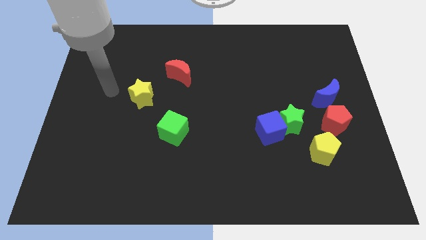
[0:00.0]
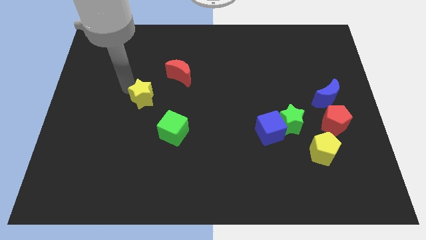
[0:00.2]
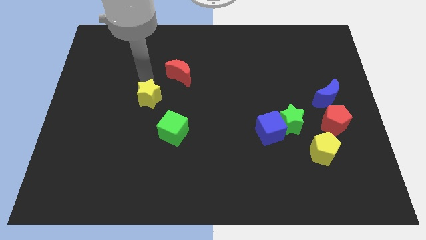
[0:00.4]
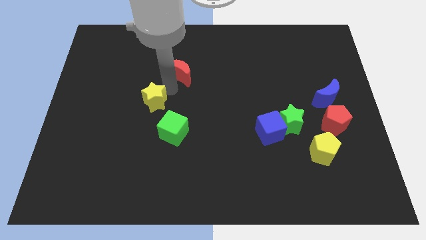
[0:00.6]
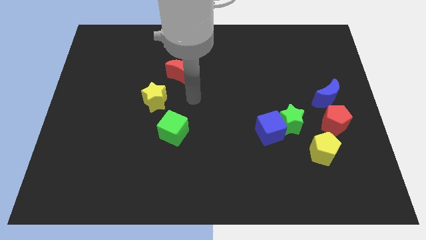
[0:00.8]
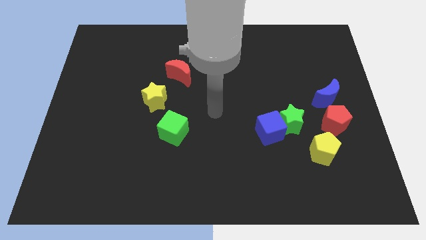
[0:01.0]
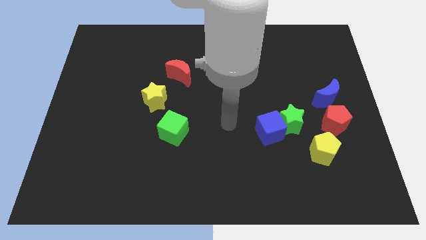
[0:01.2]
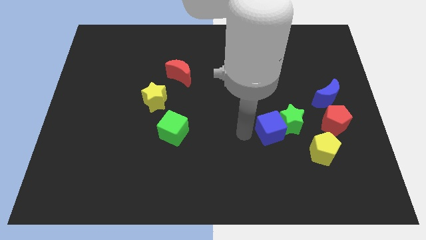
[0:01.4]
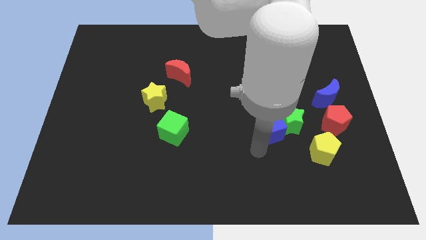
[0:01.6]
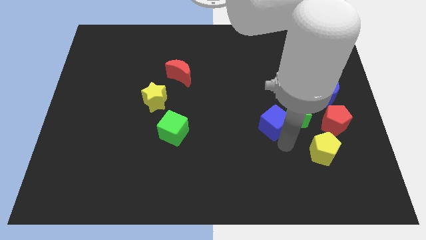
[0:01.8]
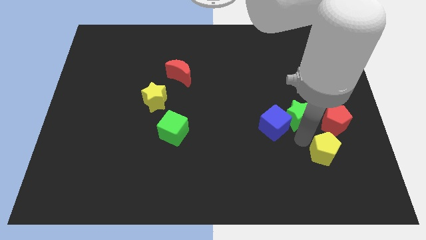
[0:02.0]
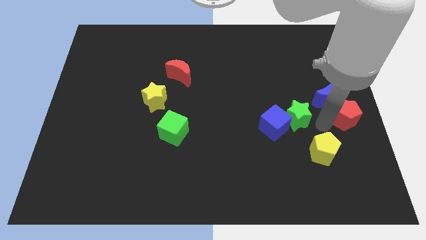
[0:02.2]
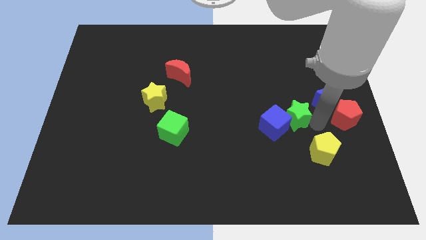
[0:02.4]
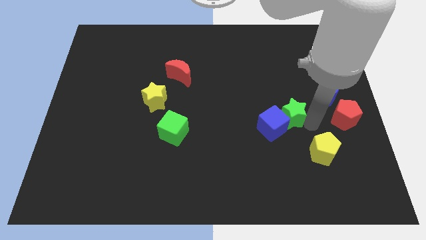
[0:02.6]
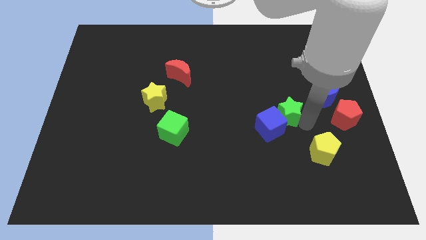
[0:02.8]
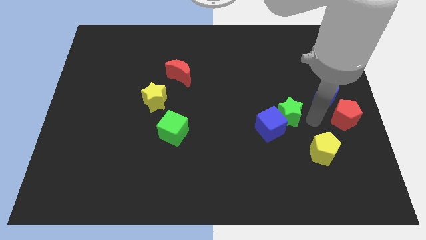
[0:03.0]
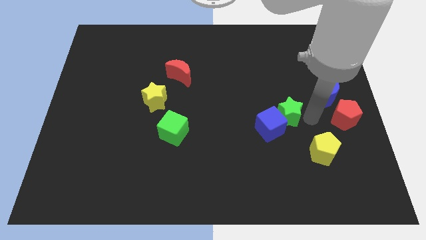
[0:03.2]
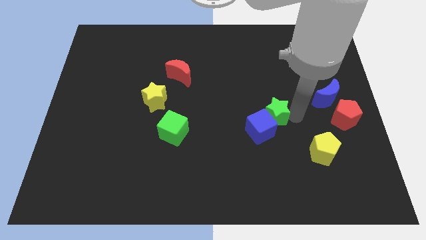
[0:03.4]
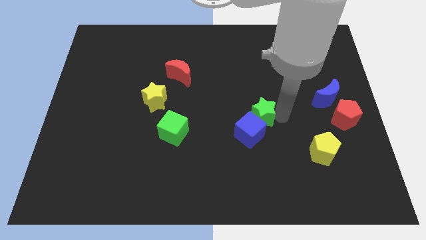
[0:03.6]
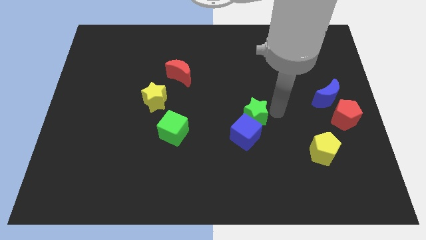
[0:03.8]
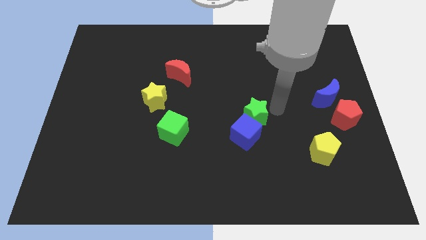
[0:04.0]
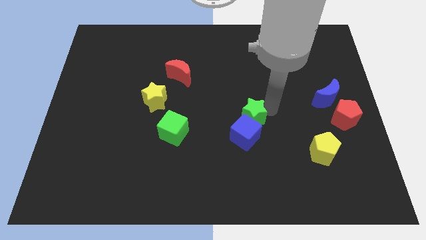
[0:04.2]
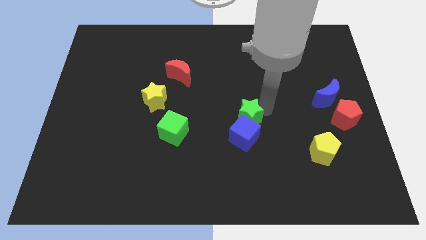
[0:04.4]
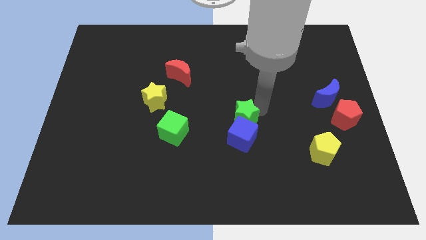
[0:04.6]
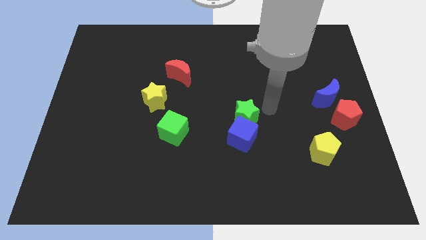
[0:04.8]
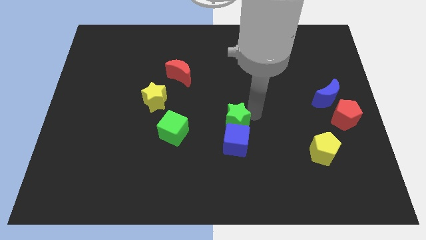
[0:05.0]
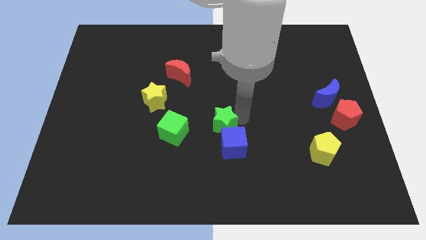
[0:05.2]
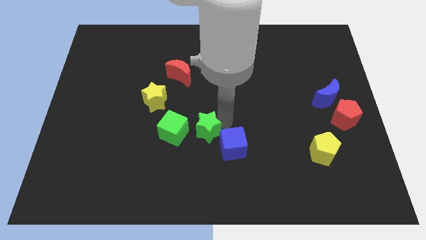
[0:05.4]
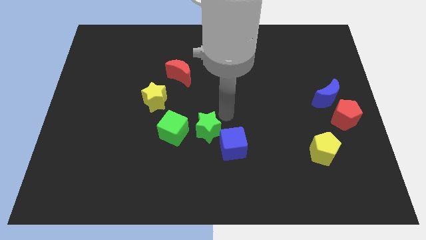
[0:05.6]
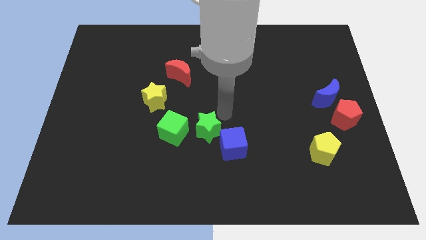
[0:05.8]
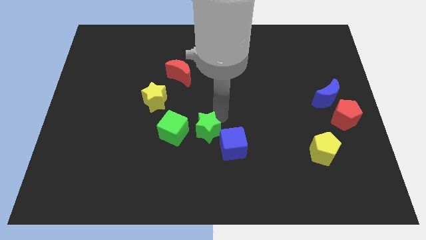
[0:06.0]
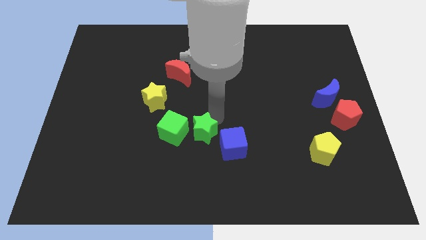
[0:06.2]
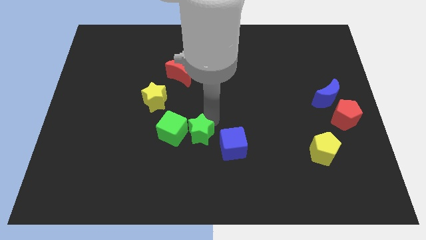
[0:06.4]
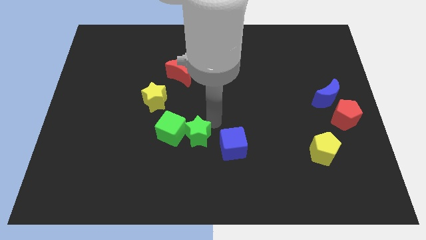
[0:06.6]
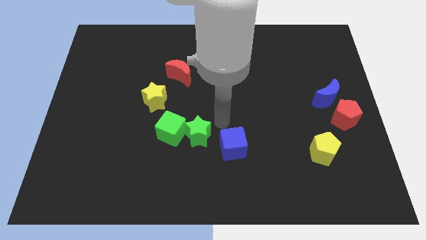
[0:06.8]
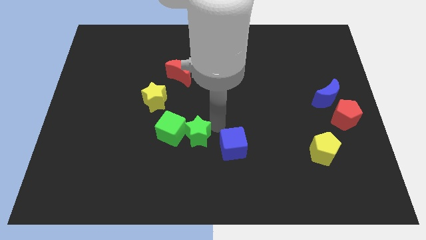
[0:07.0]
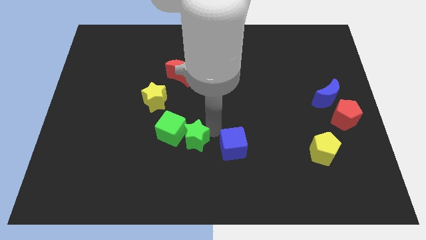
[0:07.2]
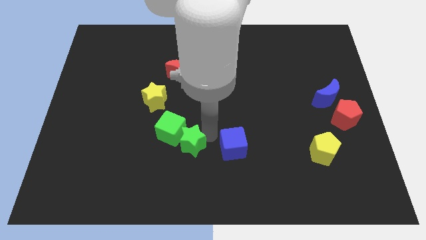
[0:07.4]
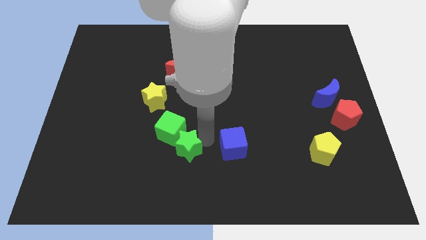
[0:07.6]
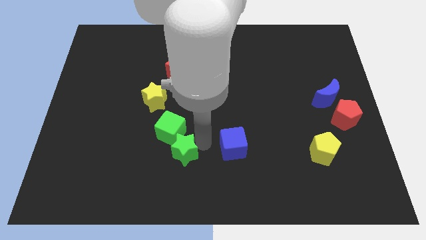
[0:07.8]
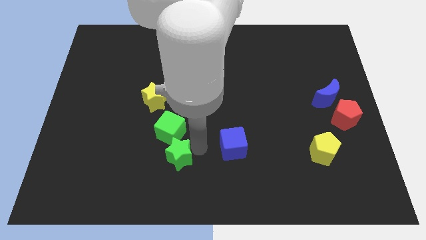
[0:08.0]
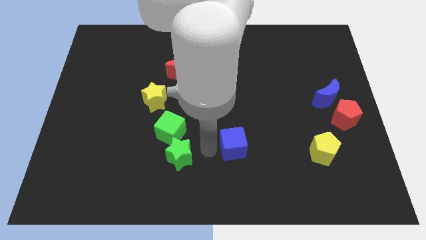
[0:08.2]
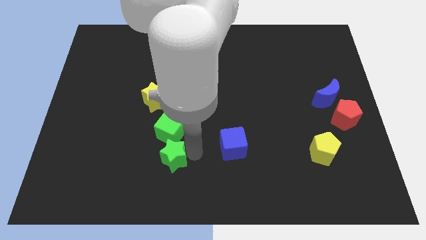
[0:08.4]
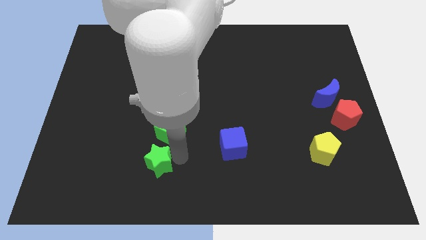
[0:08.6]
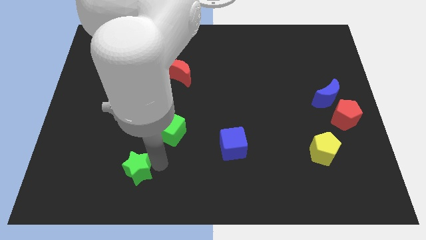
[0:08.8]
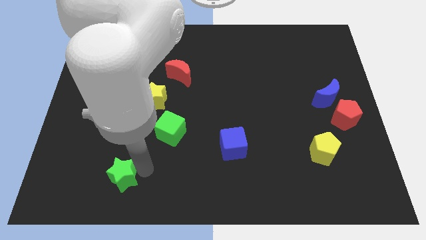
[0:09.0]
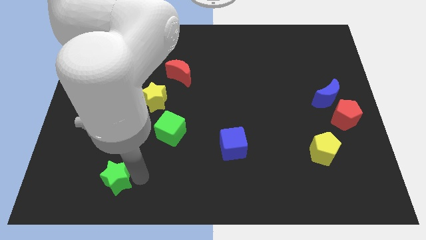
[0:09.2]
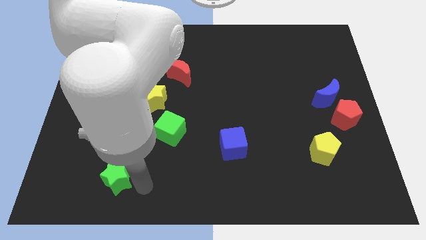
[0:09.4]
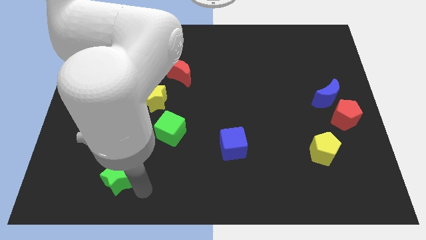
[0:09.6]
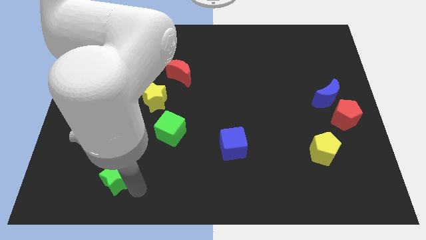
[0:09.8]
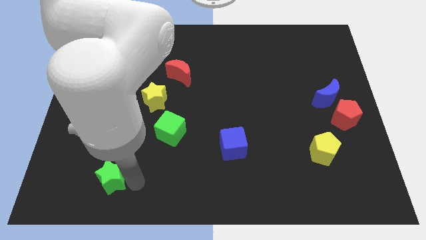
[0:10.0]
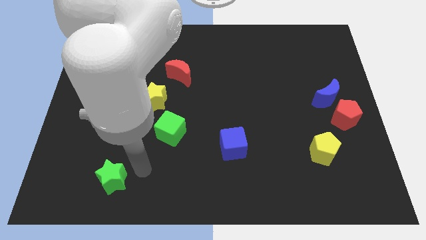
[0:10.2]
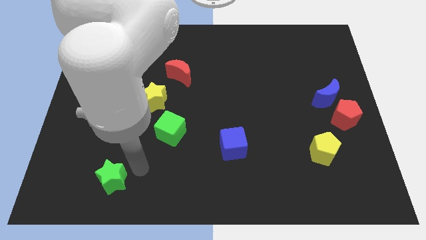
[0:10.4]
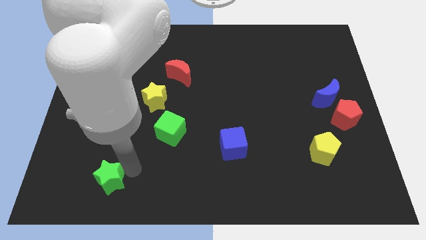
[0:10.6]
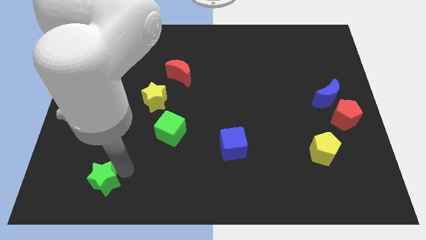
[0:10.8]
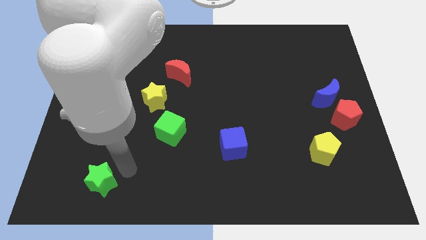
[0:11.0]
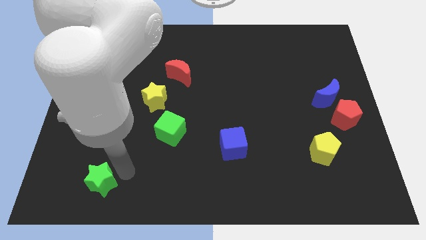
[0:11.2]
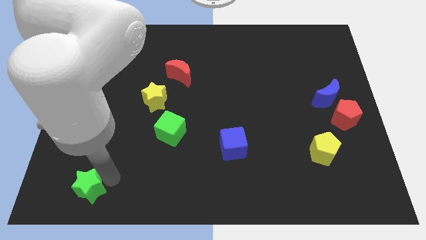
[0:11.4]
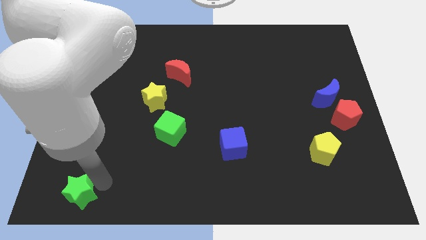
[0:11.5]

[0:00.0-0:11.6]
put the green star to the bottom left corner

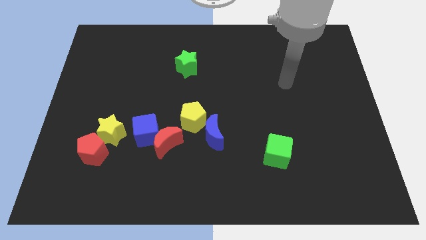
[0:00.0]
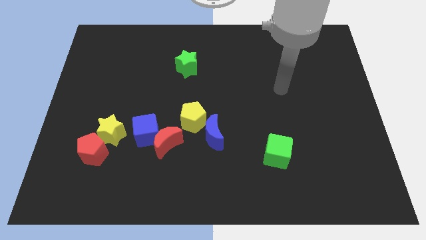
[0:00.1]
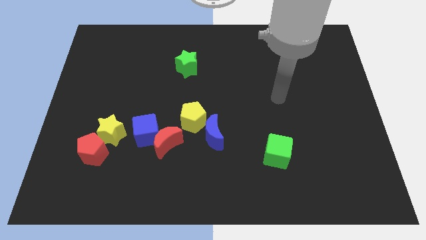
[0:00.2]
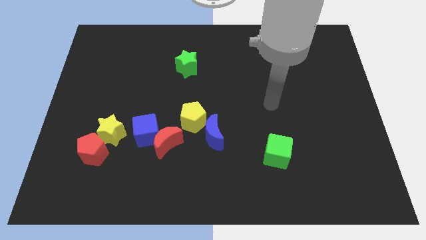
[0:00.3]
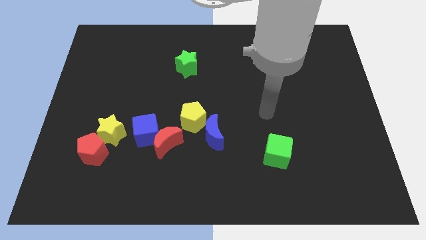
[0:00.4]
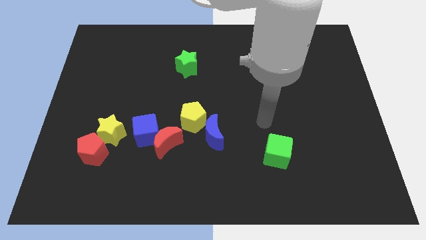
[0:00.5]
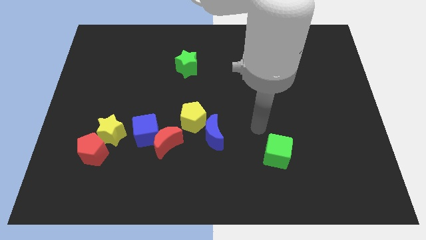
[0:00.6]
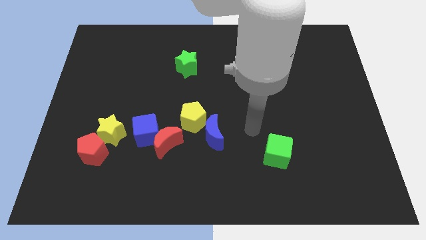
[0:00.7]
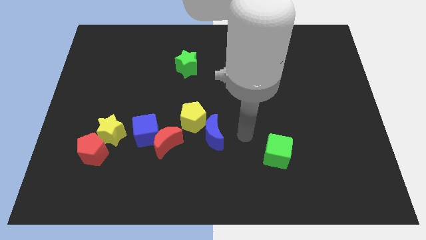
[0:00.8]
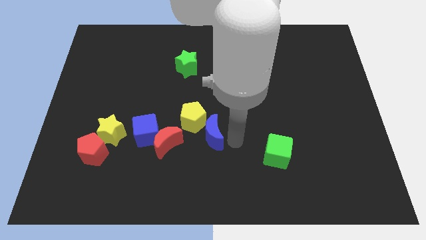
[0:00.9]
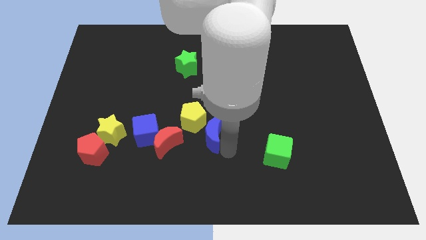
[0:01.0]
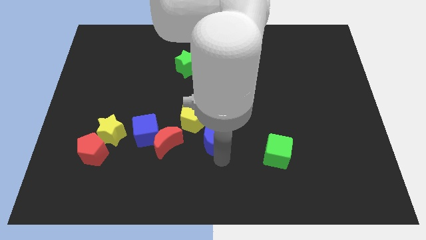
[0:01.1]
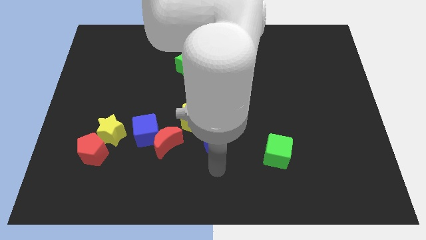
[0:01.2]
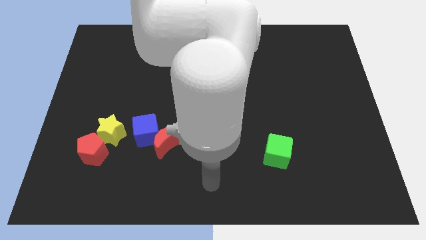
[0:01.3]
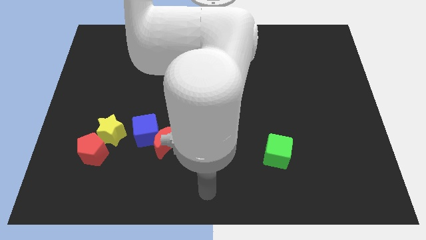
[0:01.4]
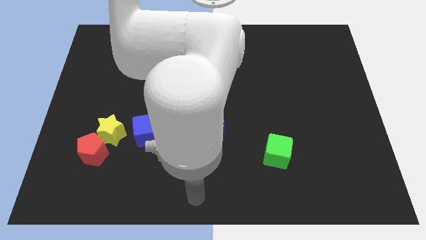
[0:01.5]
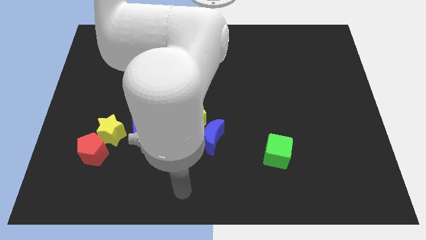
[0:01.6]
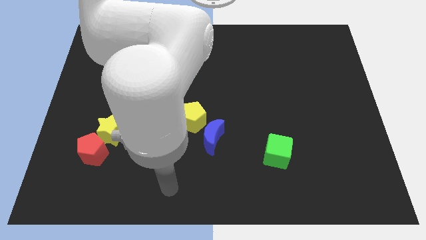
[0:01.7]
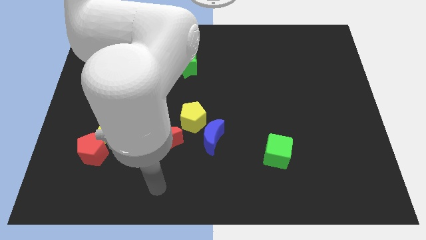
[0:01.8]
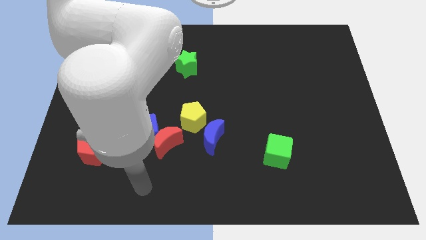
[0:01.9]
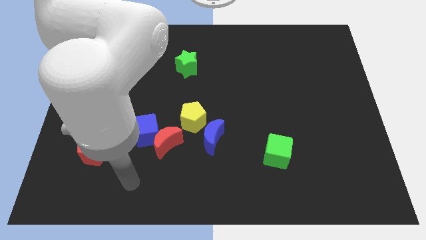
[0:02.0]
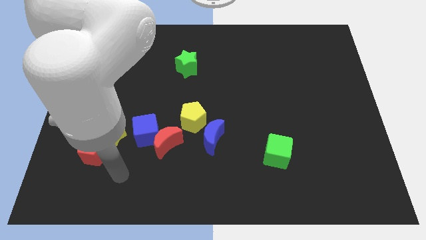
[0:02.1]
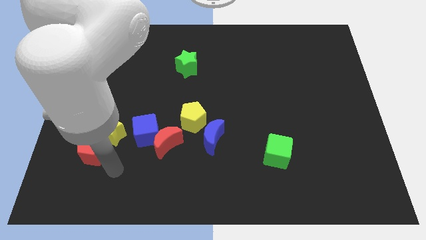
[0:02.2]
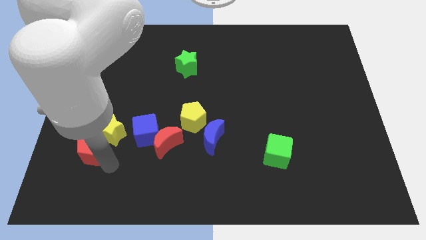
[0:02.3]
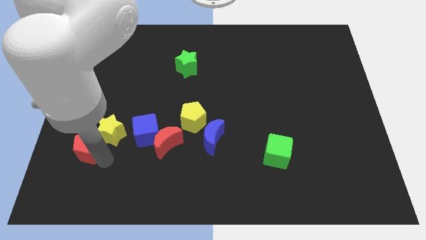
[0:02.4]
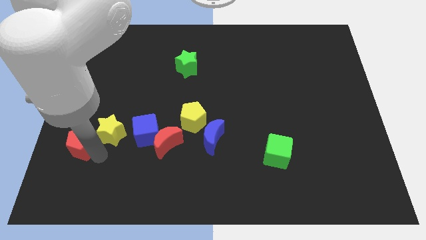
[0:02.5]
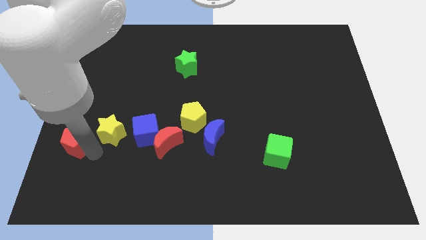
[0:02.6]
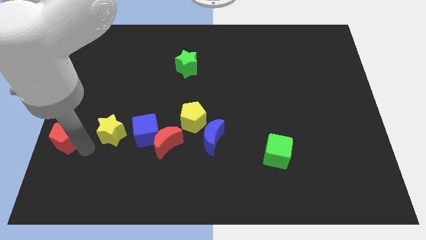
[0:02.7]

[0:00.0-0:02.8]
move the red pentagon to the center left
